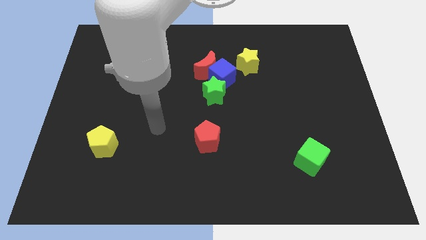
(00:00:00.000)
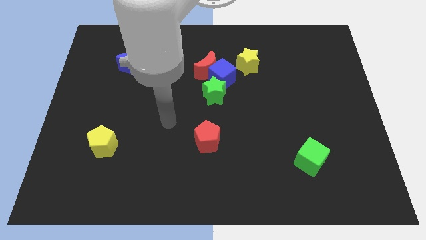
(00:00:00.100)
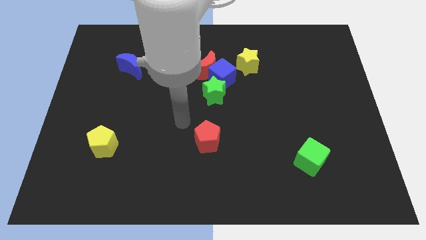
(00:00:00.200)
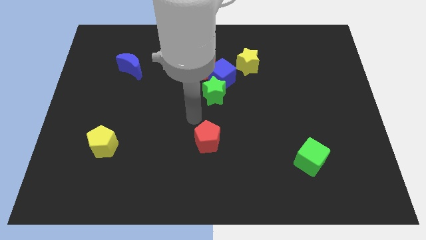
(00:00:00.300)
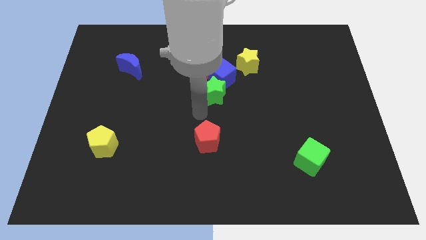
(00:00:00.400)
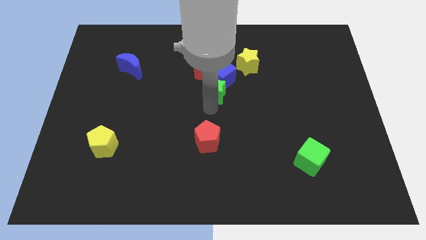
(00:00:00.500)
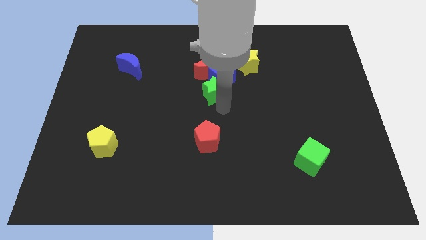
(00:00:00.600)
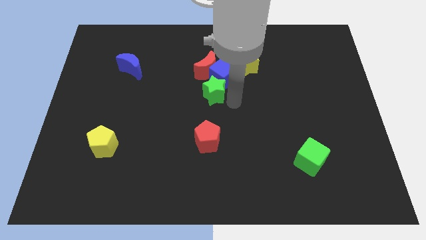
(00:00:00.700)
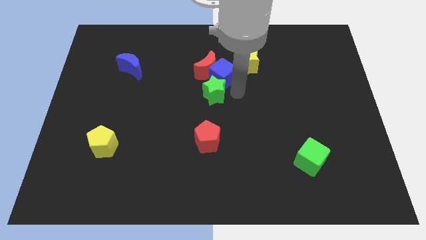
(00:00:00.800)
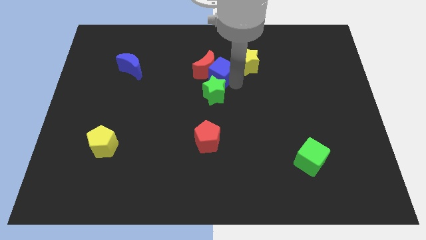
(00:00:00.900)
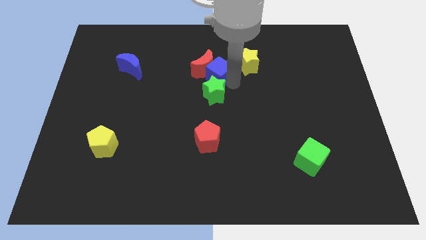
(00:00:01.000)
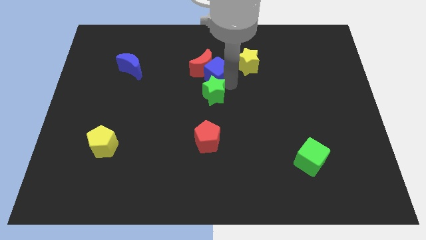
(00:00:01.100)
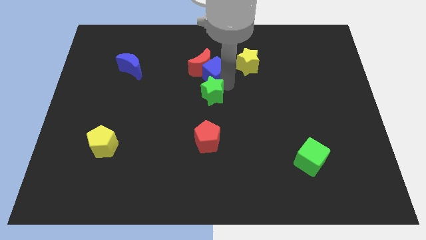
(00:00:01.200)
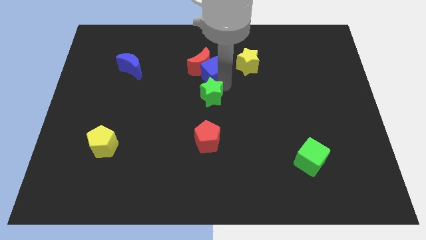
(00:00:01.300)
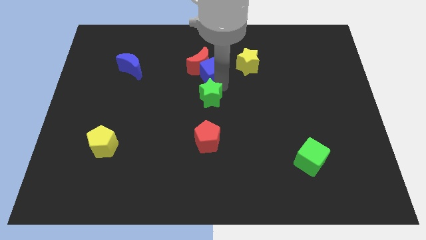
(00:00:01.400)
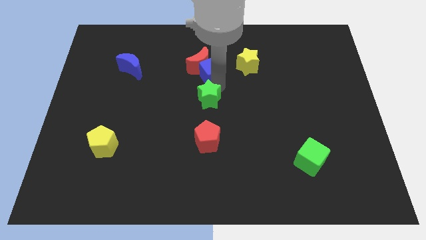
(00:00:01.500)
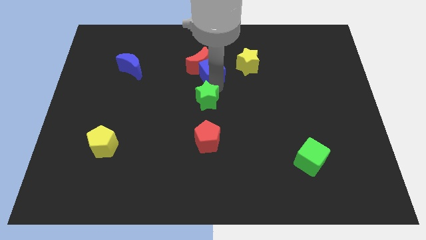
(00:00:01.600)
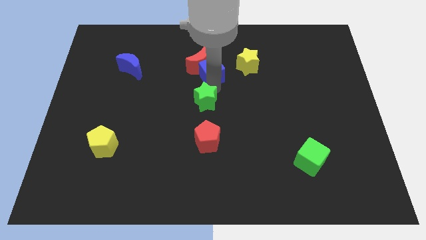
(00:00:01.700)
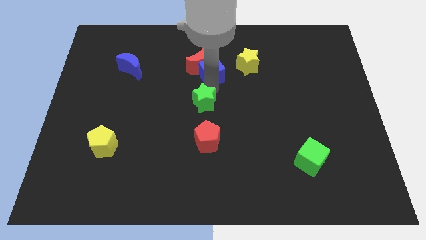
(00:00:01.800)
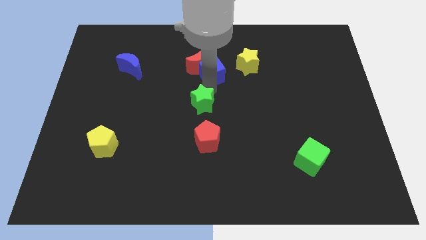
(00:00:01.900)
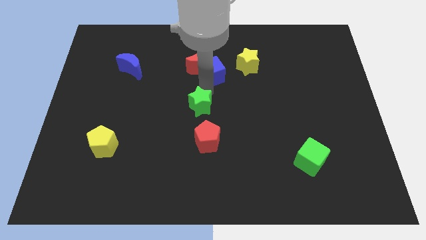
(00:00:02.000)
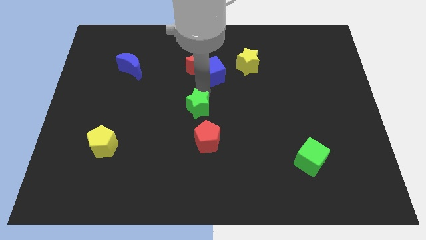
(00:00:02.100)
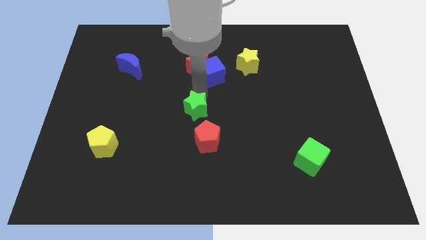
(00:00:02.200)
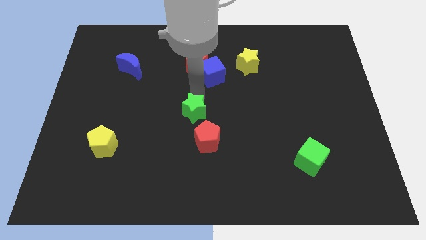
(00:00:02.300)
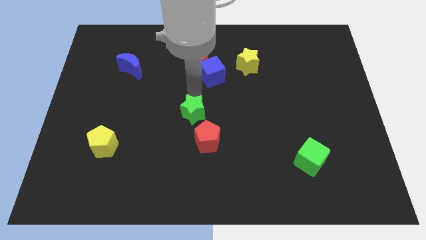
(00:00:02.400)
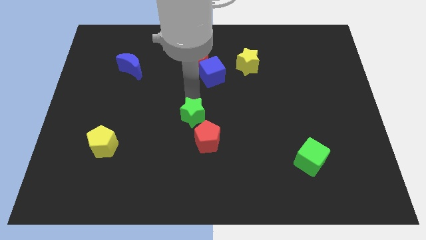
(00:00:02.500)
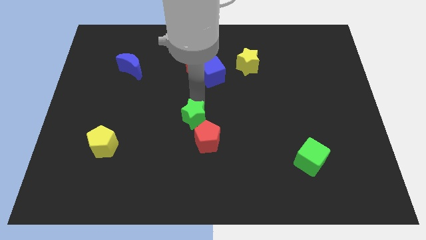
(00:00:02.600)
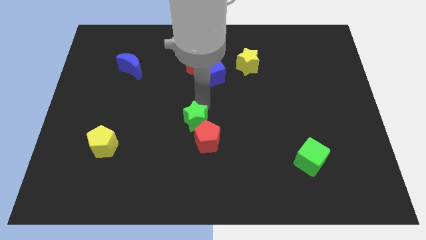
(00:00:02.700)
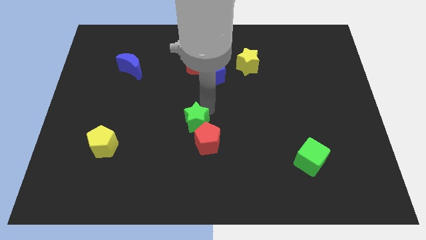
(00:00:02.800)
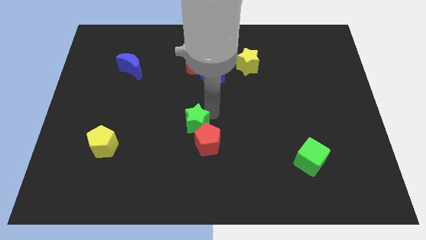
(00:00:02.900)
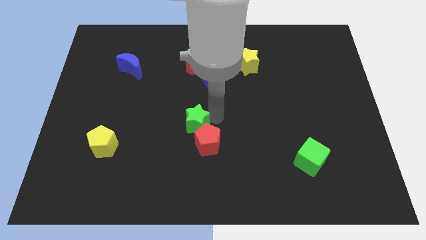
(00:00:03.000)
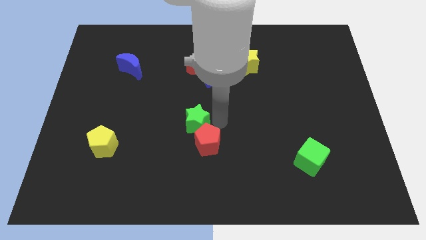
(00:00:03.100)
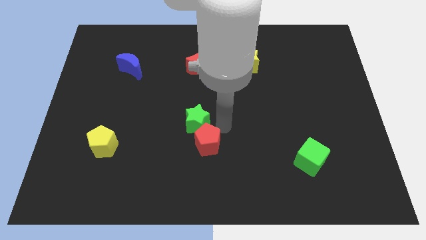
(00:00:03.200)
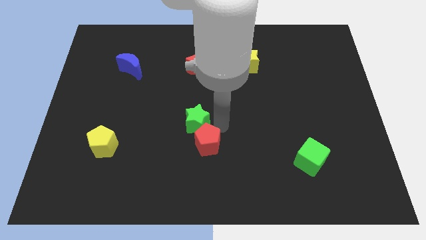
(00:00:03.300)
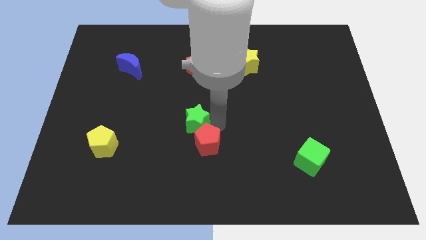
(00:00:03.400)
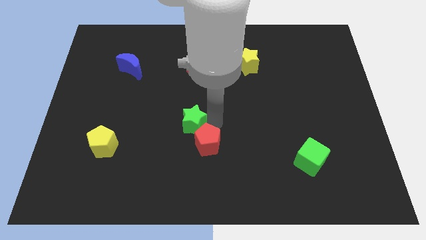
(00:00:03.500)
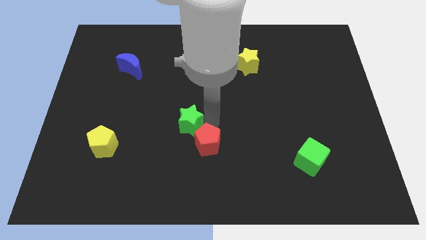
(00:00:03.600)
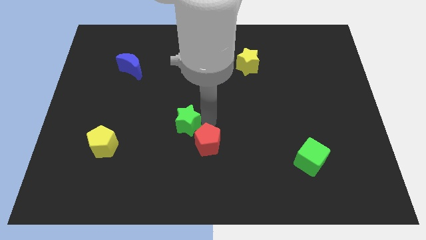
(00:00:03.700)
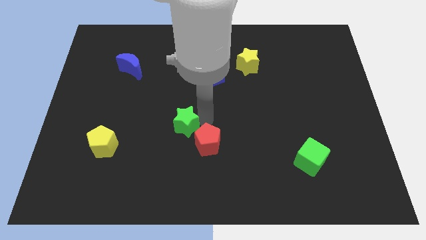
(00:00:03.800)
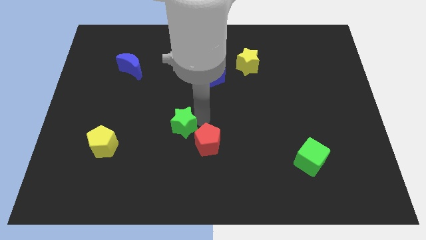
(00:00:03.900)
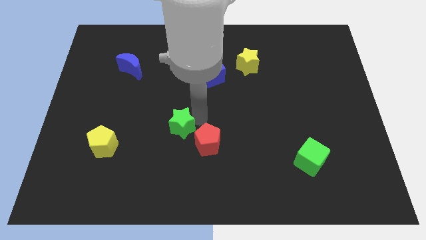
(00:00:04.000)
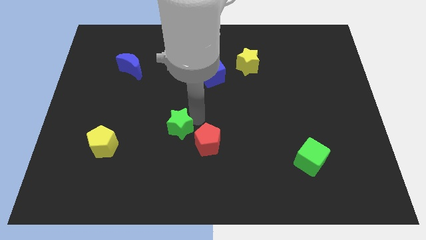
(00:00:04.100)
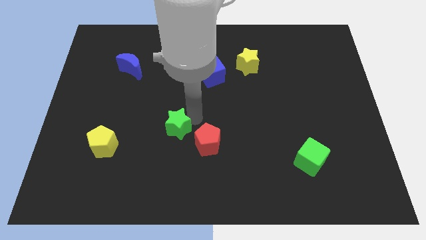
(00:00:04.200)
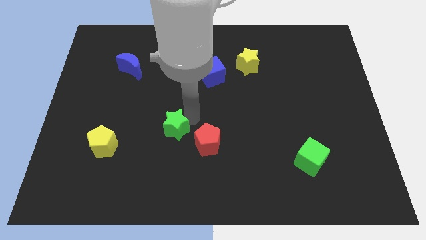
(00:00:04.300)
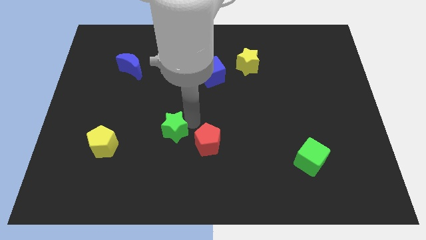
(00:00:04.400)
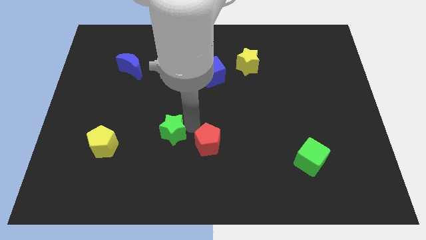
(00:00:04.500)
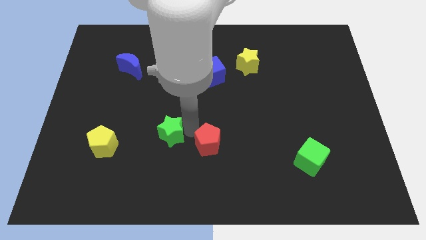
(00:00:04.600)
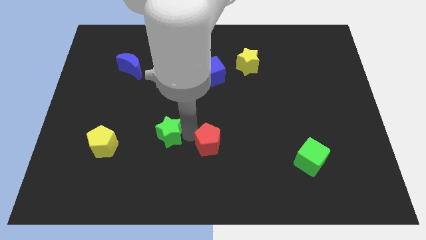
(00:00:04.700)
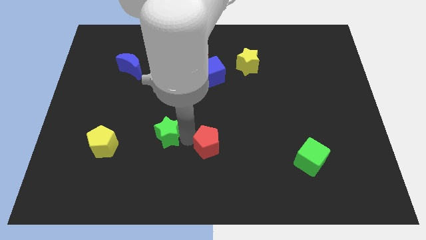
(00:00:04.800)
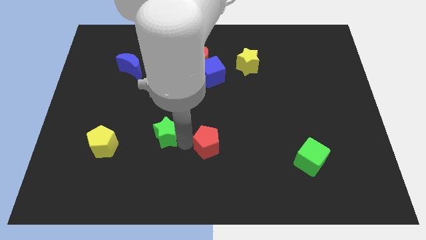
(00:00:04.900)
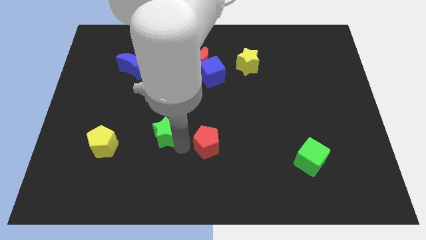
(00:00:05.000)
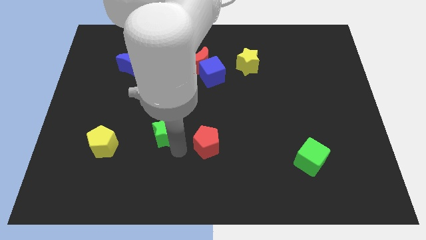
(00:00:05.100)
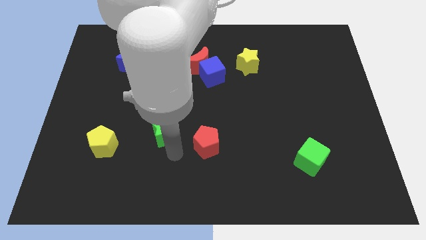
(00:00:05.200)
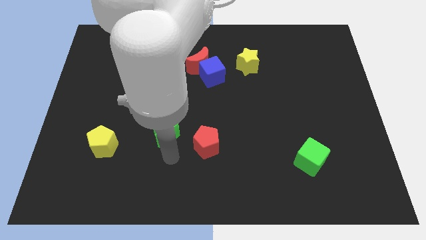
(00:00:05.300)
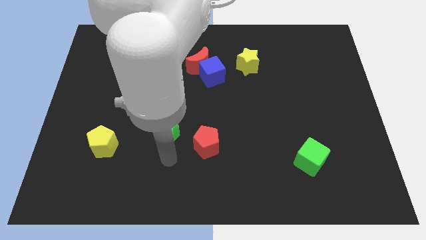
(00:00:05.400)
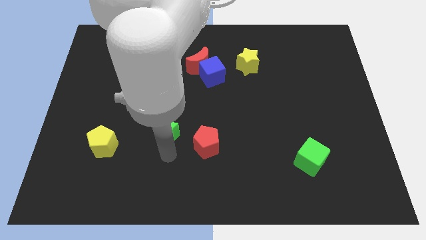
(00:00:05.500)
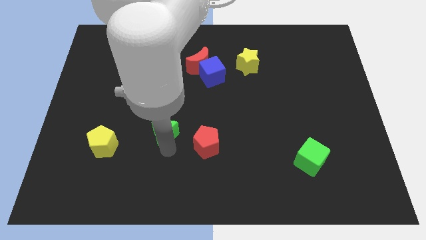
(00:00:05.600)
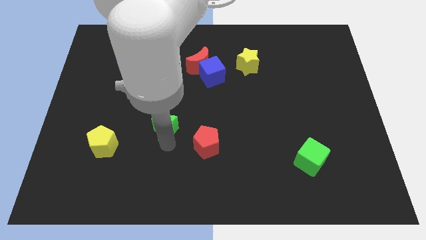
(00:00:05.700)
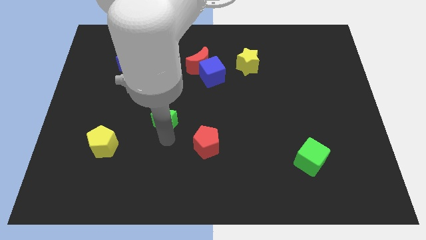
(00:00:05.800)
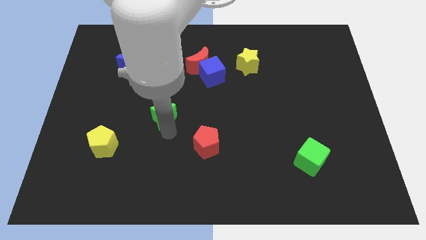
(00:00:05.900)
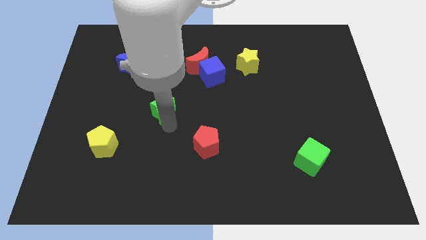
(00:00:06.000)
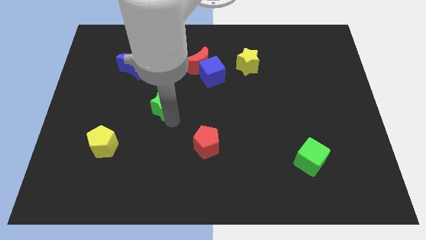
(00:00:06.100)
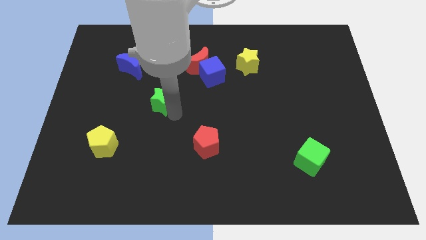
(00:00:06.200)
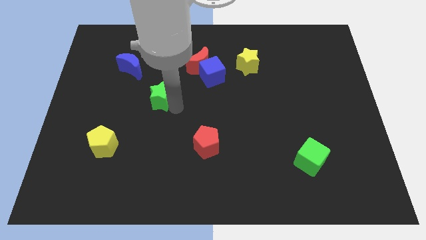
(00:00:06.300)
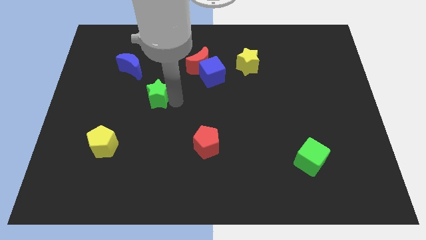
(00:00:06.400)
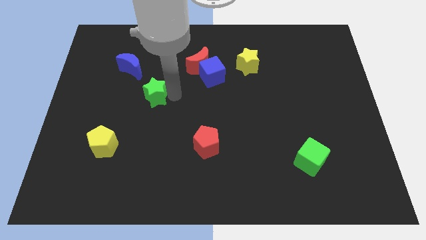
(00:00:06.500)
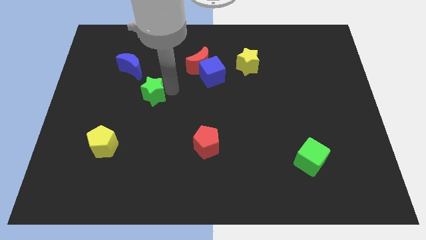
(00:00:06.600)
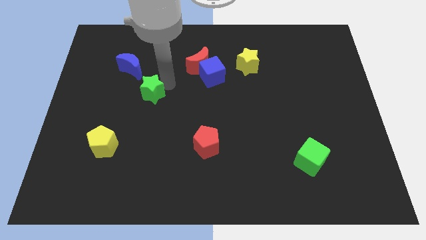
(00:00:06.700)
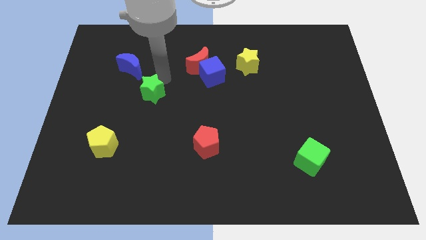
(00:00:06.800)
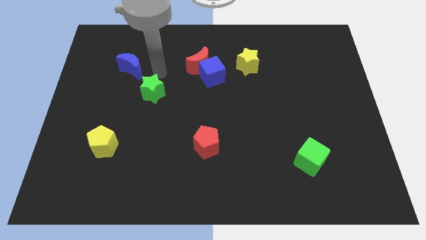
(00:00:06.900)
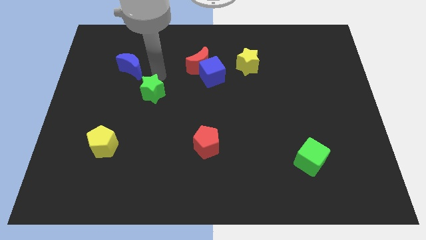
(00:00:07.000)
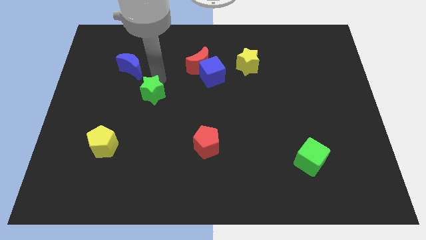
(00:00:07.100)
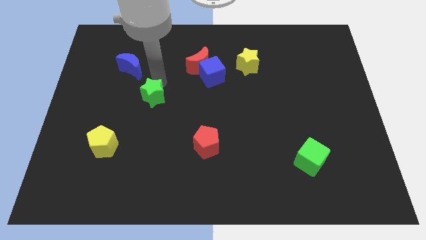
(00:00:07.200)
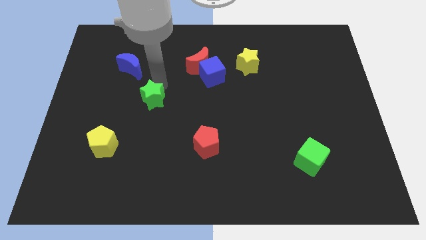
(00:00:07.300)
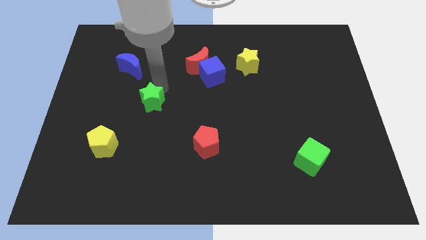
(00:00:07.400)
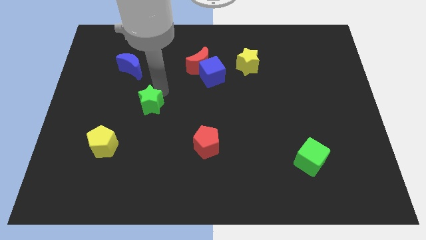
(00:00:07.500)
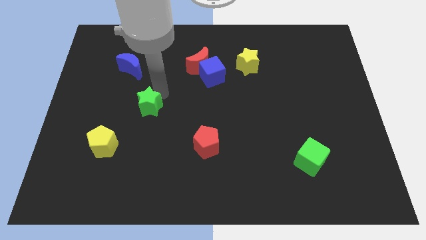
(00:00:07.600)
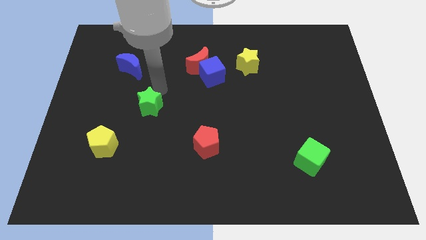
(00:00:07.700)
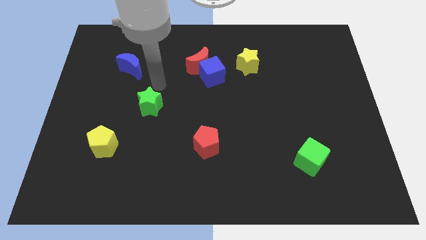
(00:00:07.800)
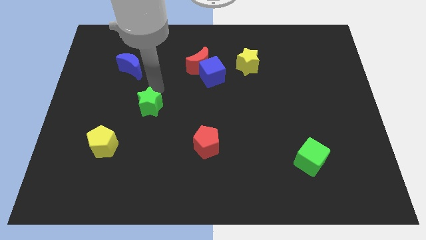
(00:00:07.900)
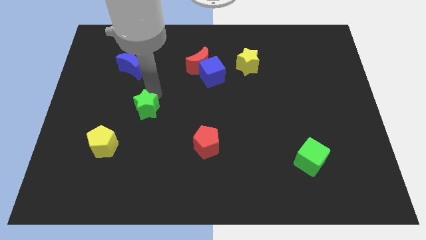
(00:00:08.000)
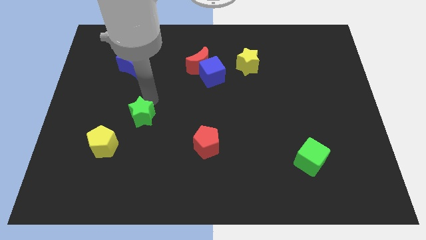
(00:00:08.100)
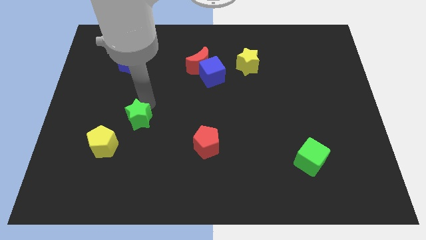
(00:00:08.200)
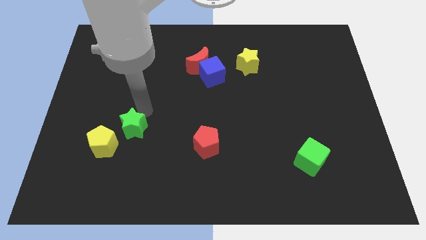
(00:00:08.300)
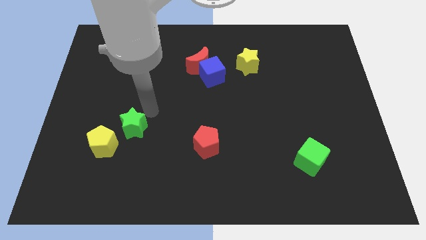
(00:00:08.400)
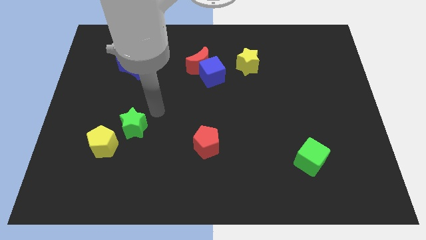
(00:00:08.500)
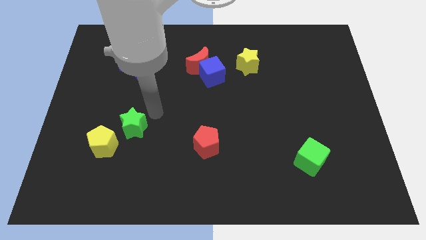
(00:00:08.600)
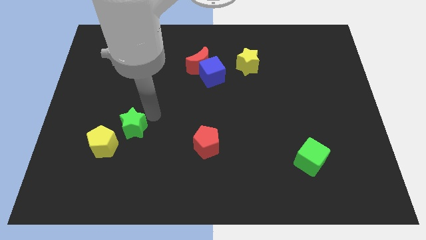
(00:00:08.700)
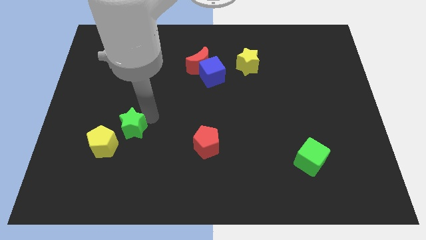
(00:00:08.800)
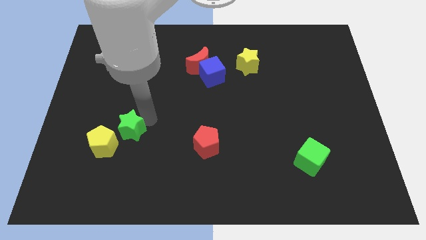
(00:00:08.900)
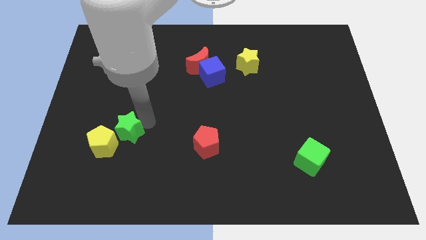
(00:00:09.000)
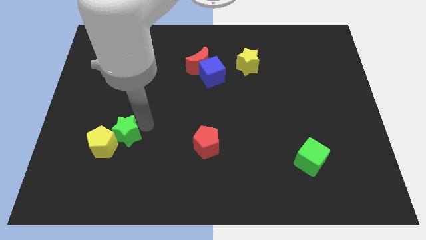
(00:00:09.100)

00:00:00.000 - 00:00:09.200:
slide the green star next to the yellow pentagon
